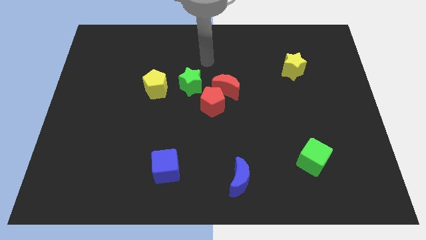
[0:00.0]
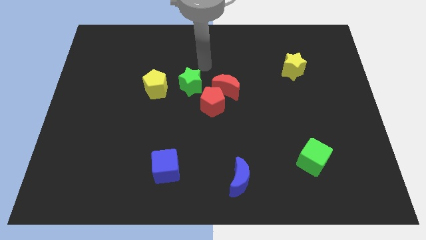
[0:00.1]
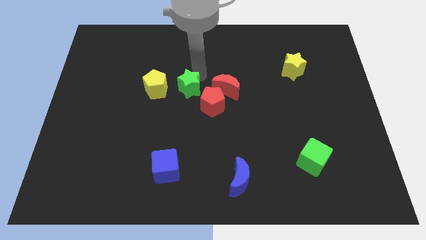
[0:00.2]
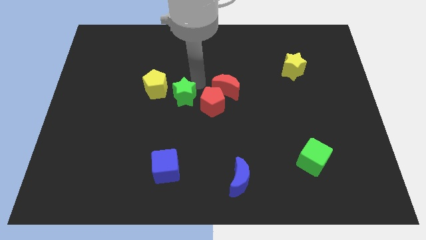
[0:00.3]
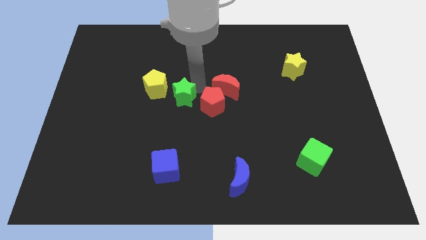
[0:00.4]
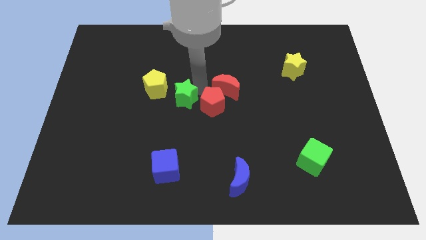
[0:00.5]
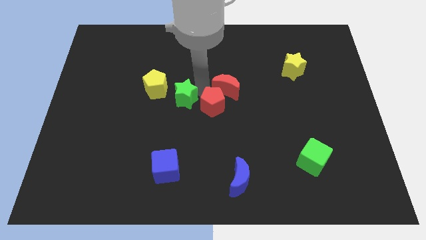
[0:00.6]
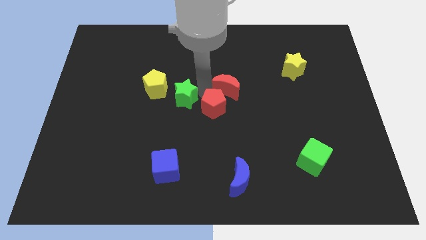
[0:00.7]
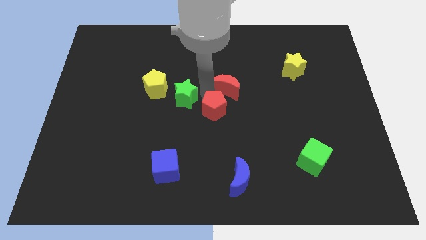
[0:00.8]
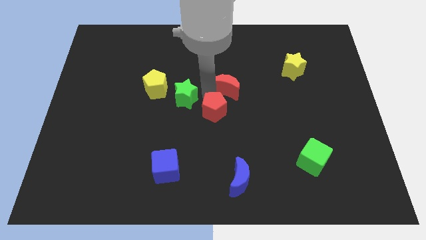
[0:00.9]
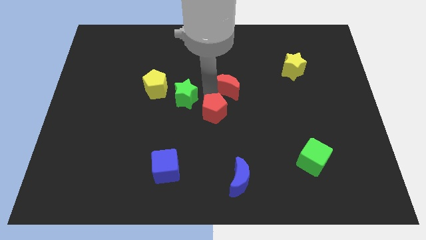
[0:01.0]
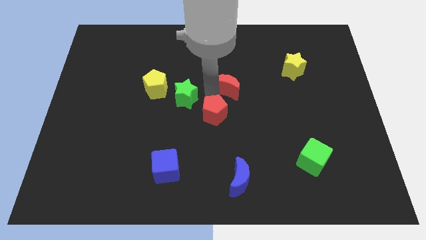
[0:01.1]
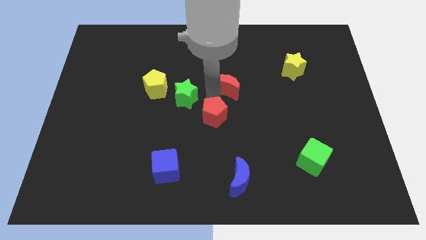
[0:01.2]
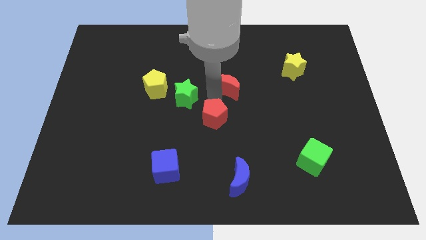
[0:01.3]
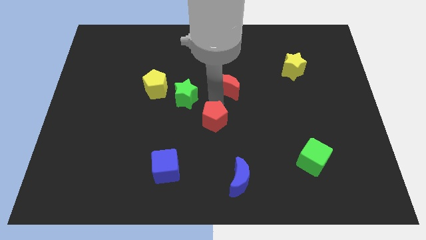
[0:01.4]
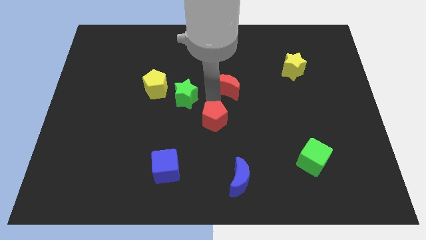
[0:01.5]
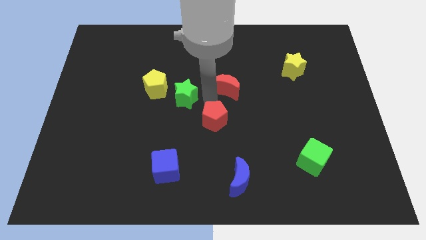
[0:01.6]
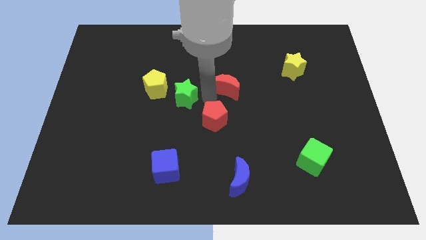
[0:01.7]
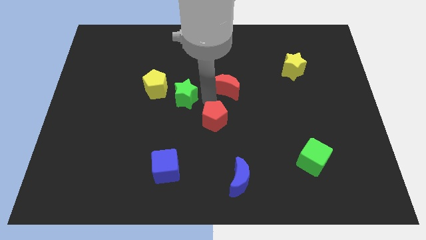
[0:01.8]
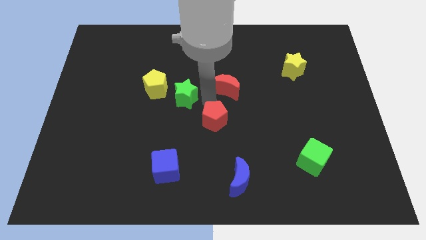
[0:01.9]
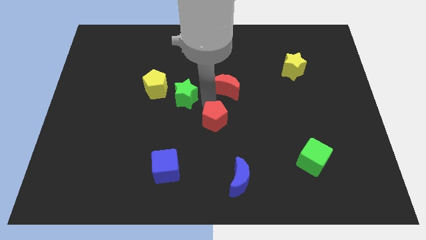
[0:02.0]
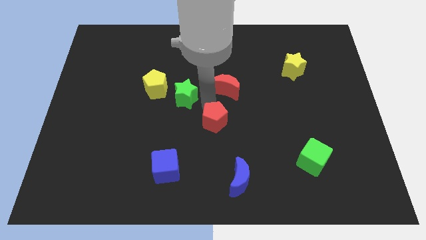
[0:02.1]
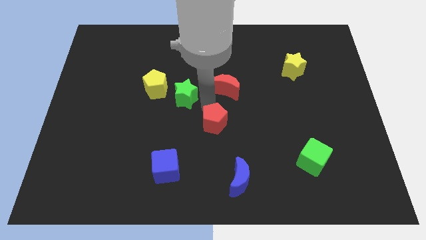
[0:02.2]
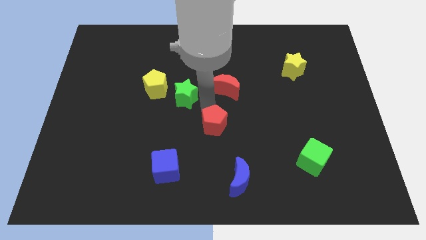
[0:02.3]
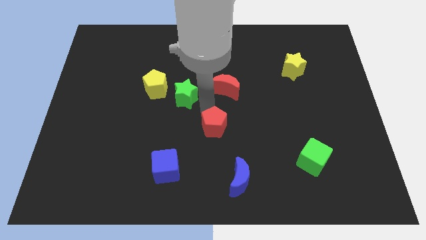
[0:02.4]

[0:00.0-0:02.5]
move the red pentagon away from the red moon and green star

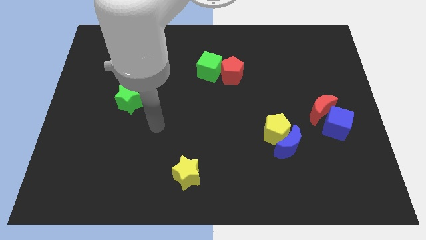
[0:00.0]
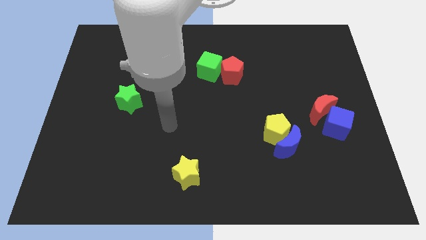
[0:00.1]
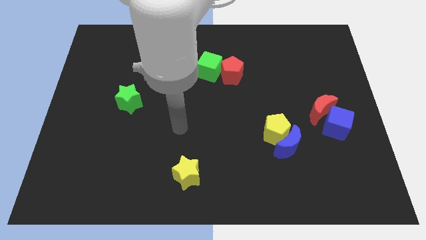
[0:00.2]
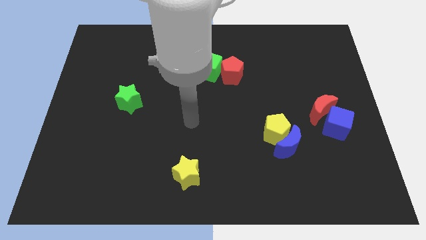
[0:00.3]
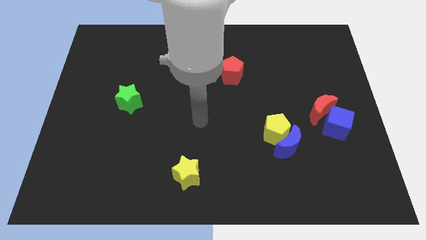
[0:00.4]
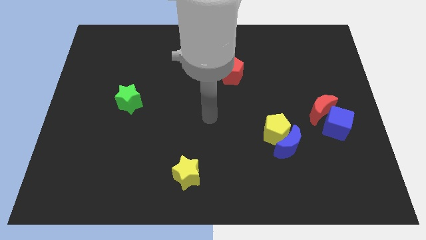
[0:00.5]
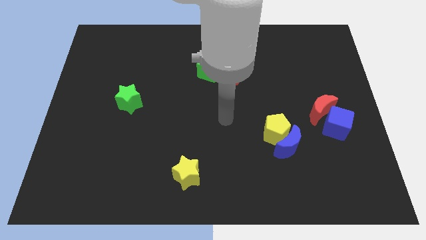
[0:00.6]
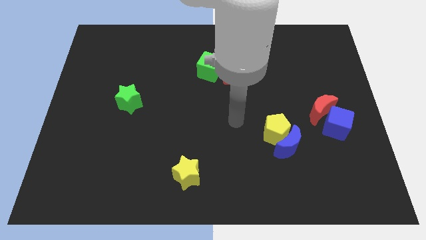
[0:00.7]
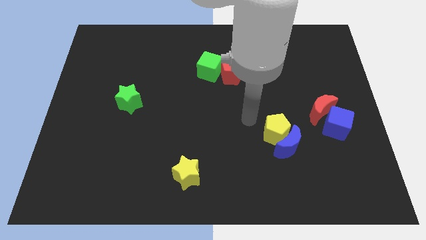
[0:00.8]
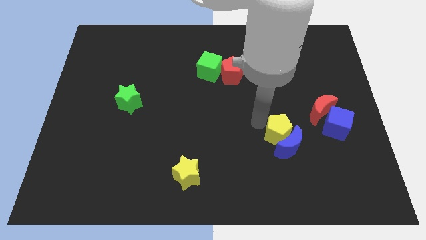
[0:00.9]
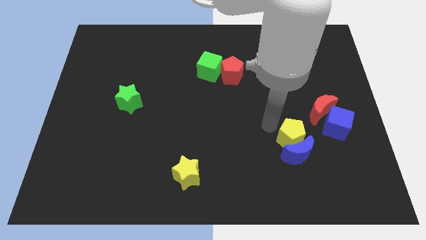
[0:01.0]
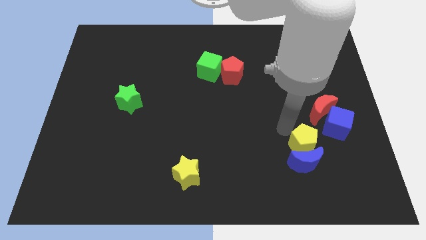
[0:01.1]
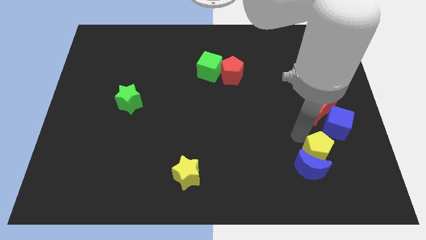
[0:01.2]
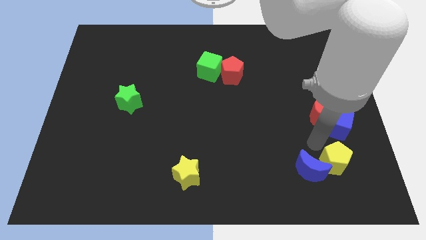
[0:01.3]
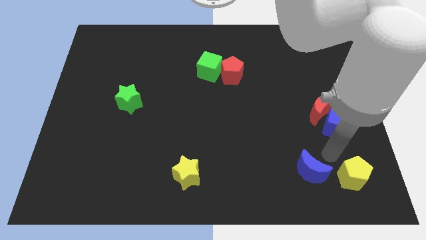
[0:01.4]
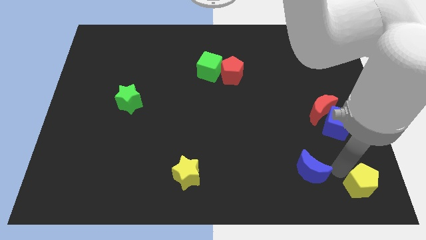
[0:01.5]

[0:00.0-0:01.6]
pull the blue moon apart from the yellow pentagon

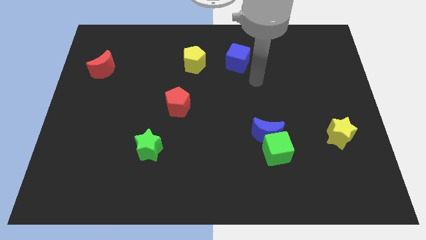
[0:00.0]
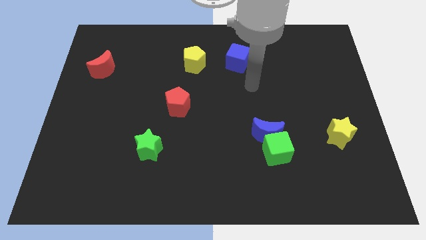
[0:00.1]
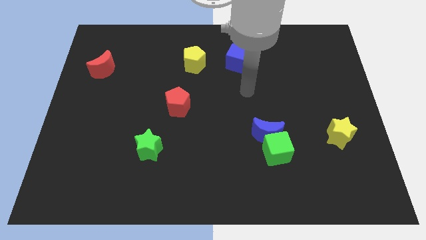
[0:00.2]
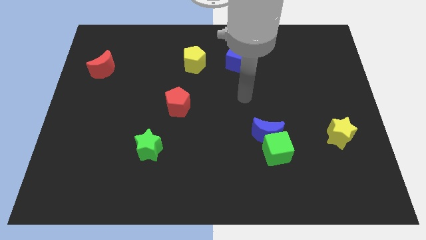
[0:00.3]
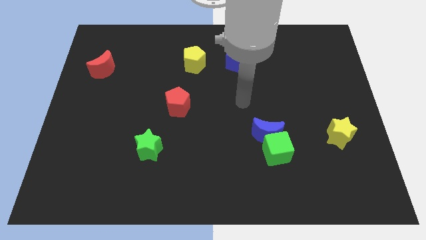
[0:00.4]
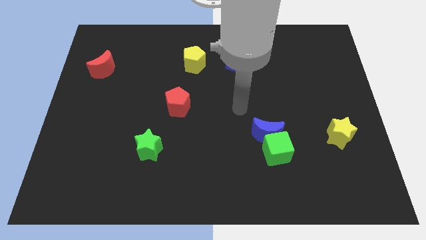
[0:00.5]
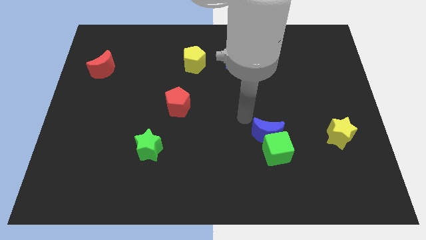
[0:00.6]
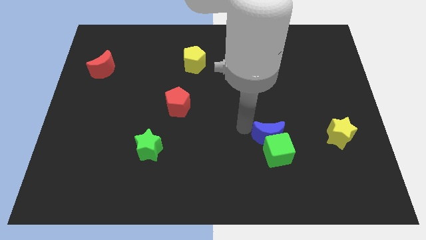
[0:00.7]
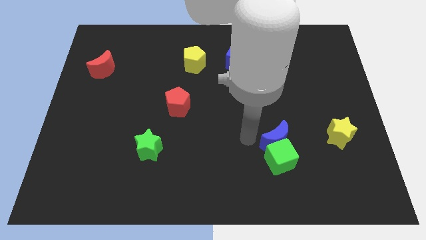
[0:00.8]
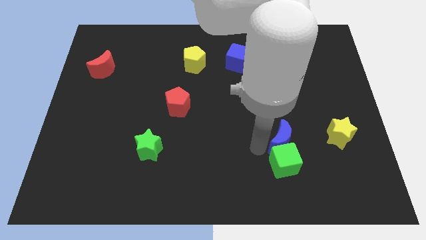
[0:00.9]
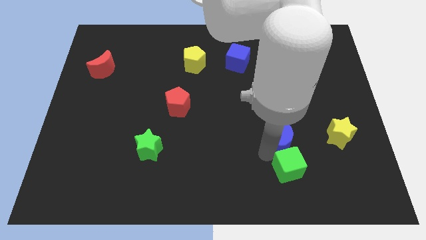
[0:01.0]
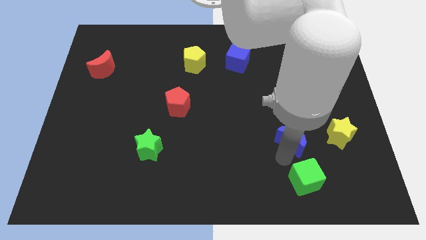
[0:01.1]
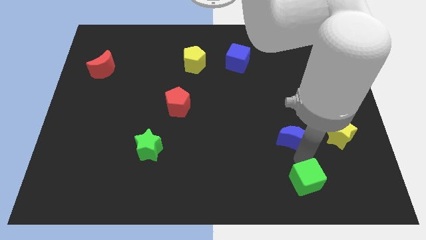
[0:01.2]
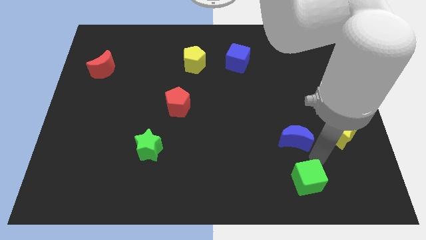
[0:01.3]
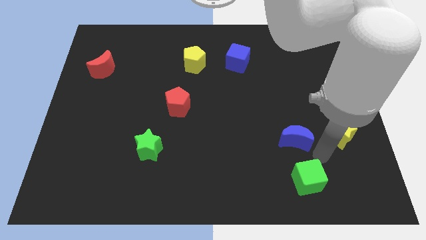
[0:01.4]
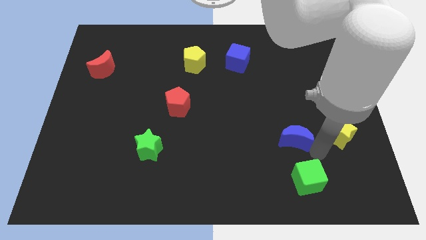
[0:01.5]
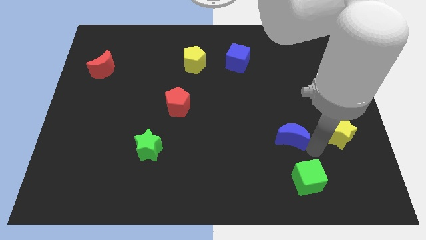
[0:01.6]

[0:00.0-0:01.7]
pull the blue moon apart from the green cube

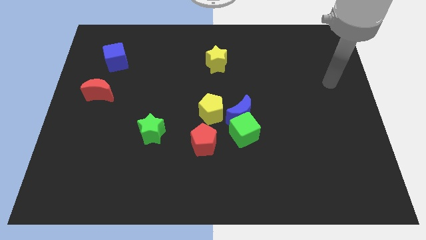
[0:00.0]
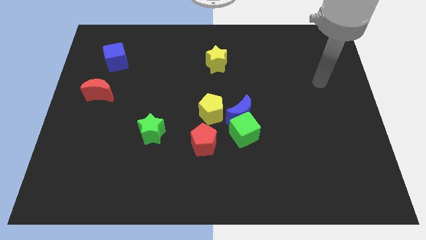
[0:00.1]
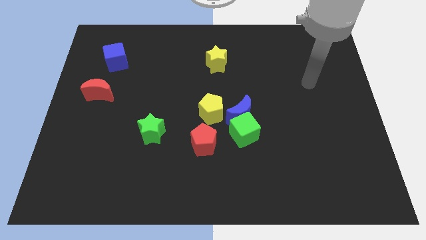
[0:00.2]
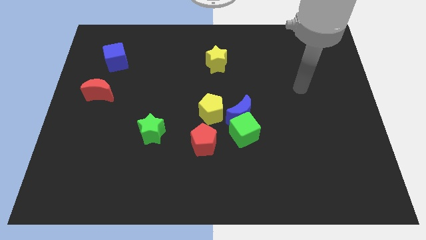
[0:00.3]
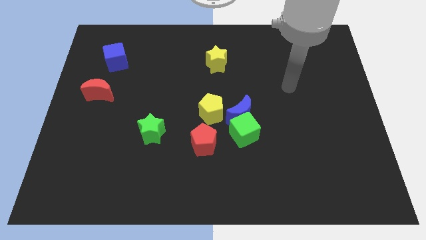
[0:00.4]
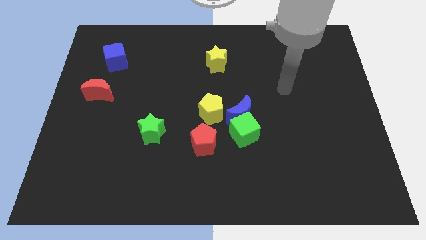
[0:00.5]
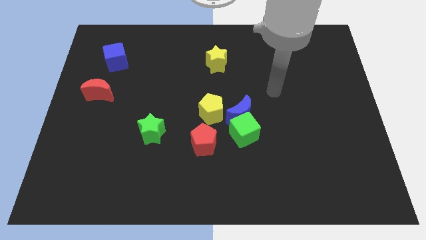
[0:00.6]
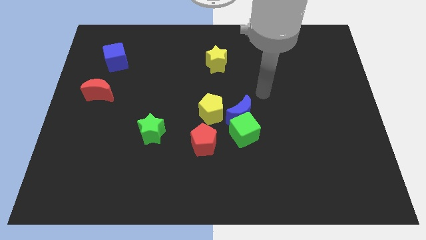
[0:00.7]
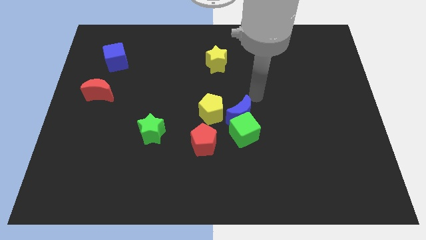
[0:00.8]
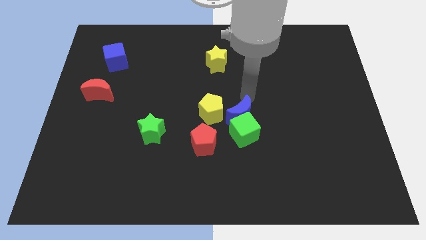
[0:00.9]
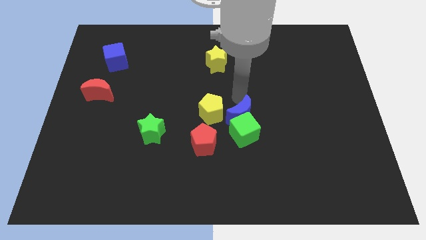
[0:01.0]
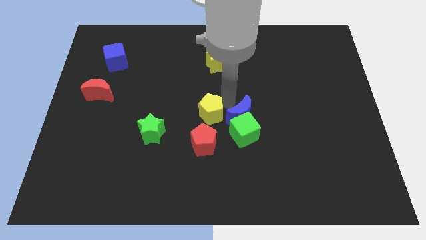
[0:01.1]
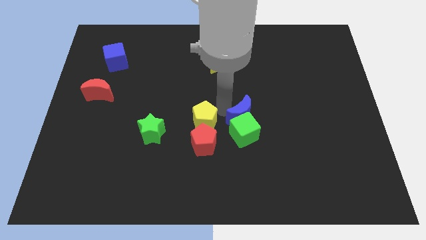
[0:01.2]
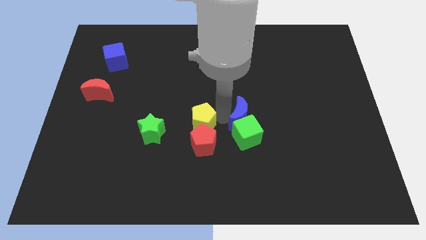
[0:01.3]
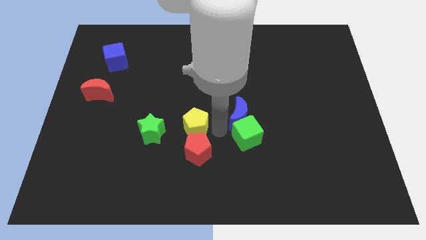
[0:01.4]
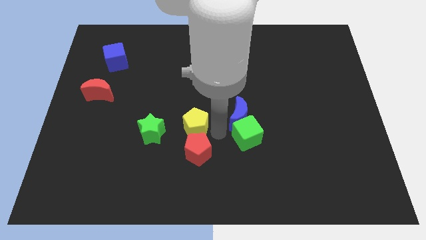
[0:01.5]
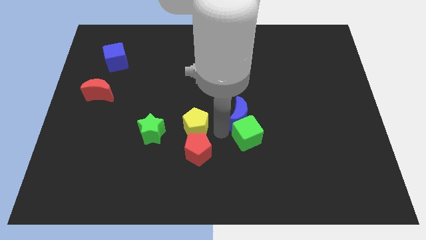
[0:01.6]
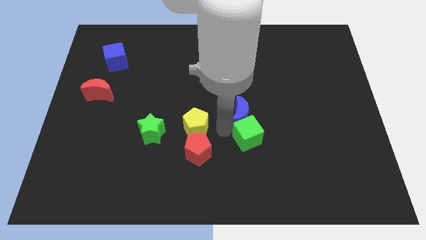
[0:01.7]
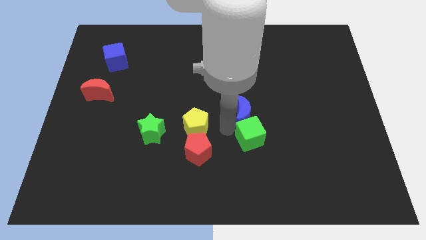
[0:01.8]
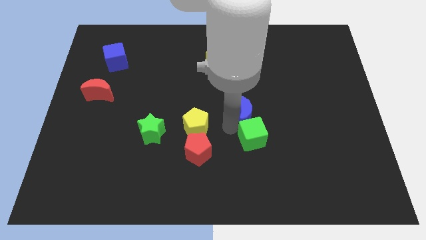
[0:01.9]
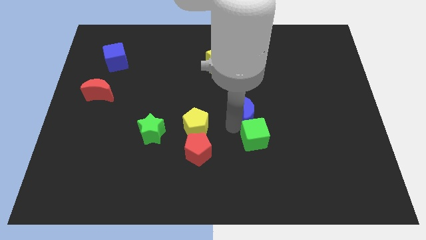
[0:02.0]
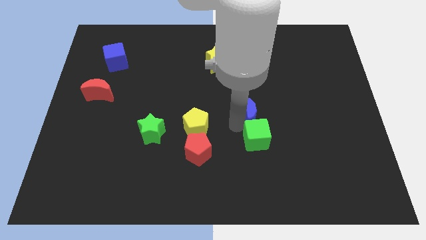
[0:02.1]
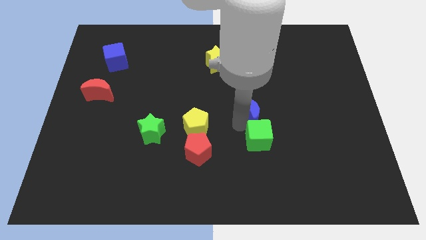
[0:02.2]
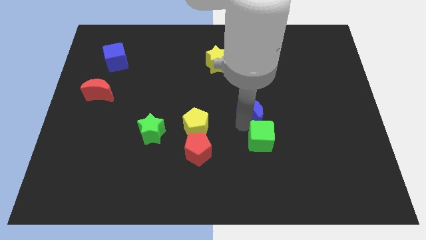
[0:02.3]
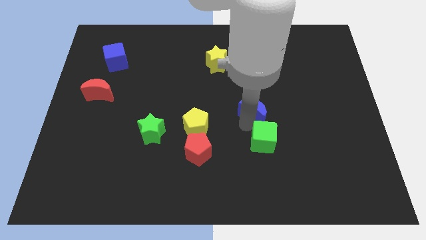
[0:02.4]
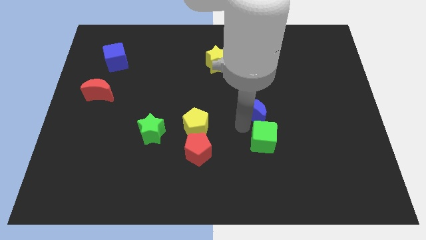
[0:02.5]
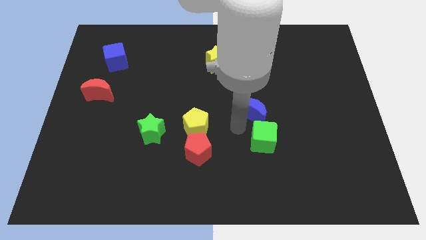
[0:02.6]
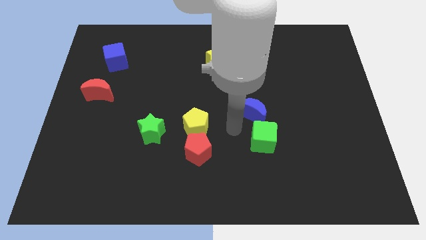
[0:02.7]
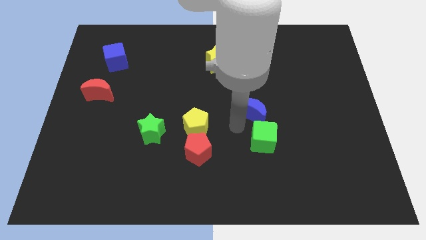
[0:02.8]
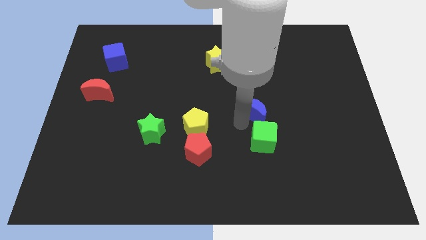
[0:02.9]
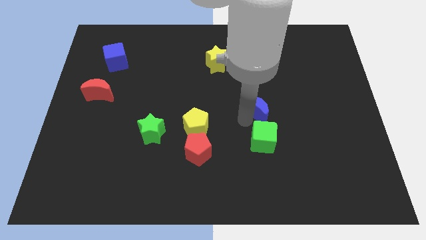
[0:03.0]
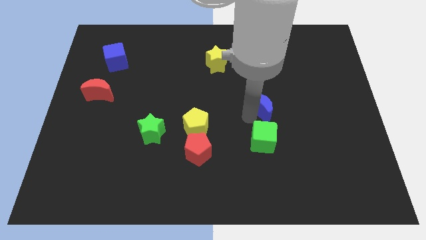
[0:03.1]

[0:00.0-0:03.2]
move the blue moon away from the green cube and yellow pentagon

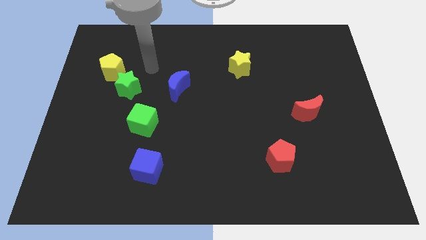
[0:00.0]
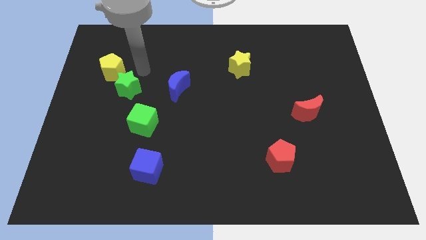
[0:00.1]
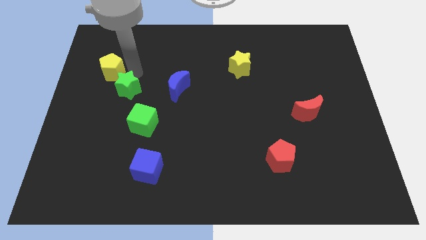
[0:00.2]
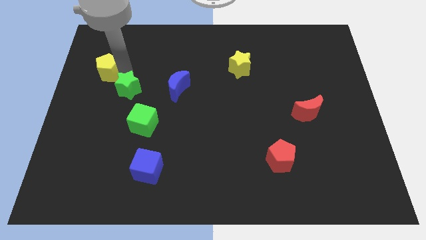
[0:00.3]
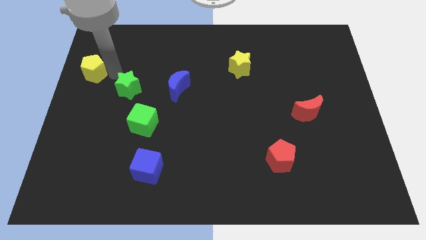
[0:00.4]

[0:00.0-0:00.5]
move the green star away from the yellow pentagon
